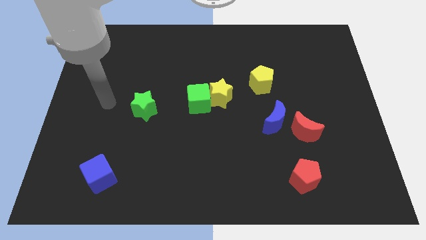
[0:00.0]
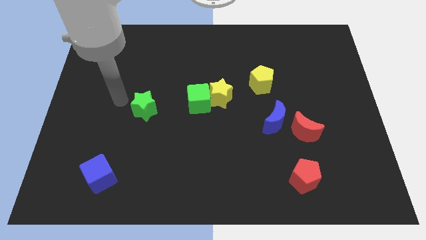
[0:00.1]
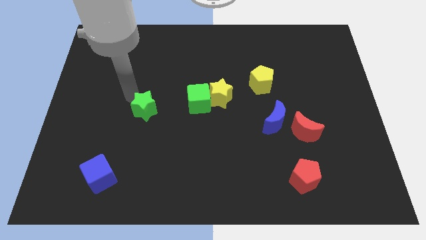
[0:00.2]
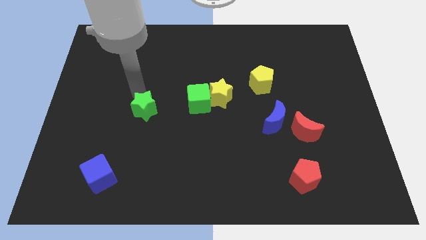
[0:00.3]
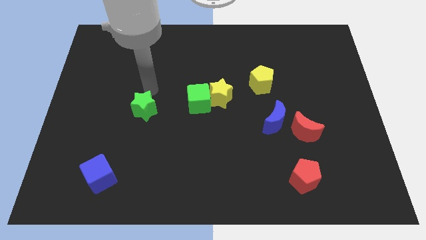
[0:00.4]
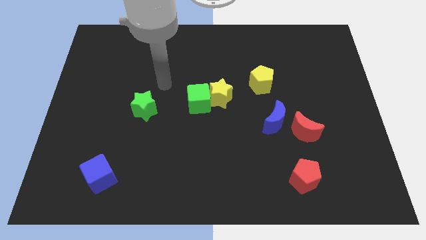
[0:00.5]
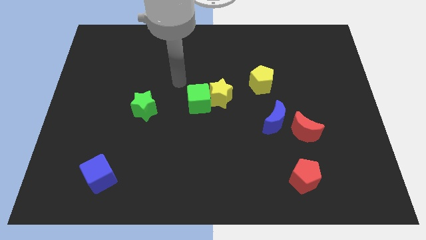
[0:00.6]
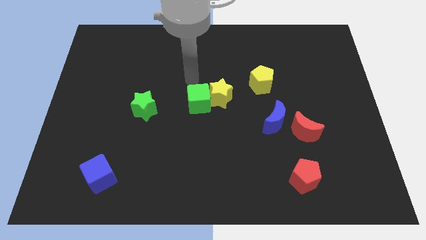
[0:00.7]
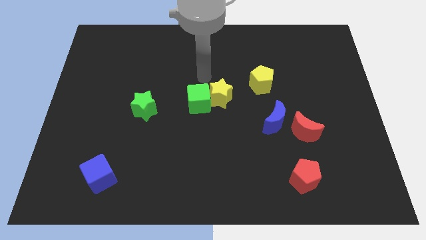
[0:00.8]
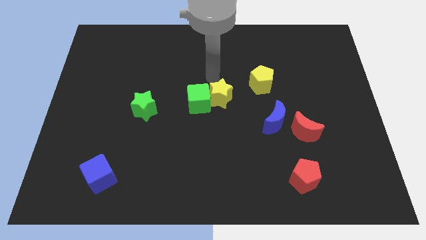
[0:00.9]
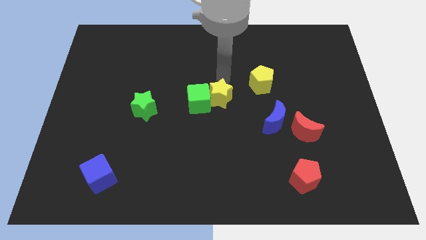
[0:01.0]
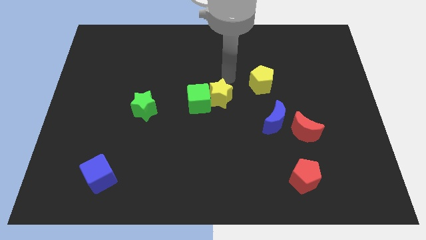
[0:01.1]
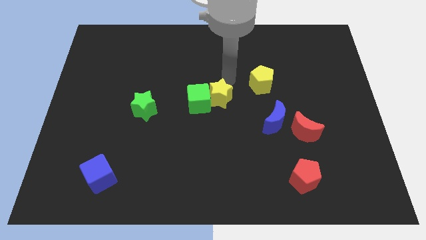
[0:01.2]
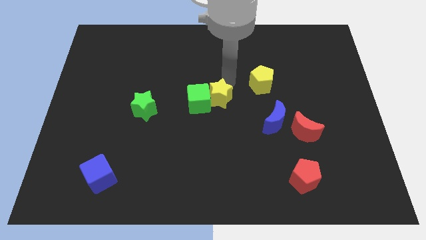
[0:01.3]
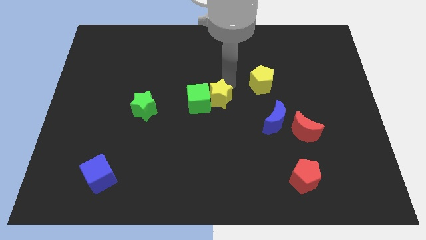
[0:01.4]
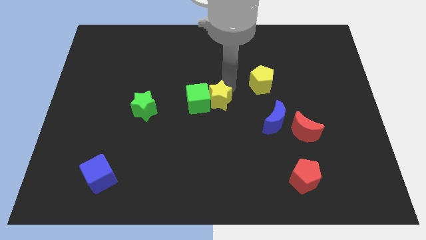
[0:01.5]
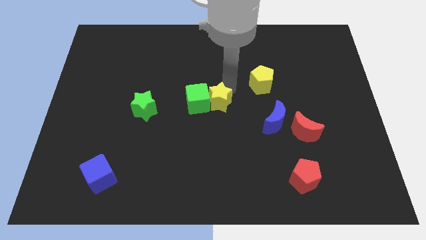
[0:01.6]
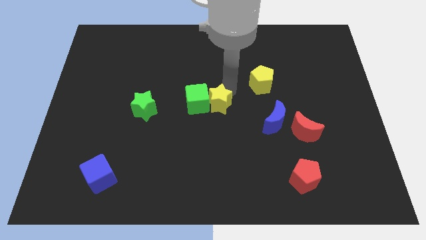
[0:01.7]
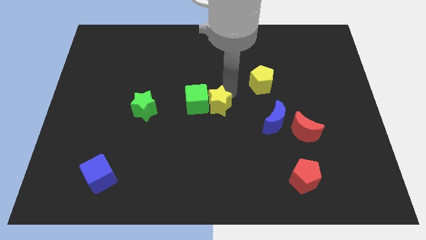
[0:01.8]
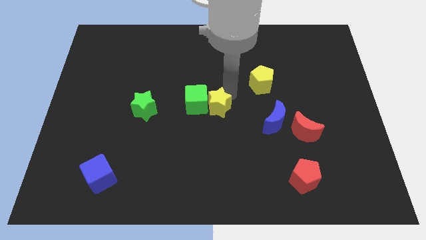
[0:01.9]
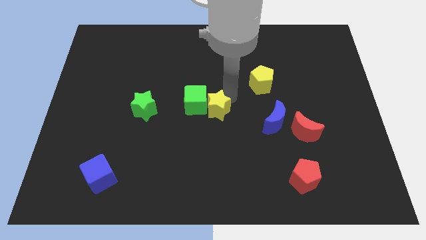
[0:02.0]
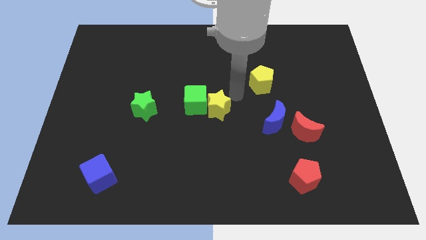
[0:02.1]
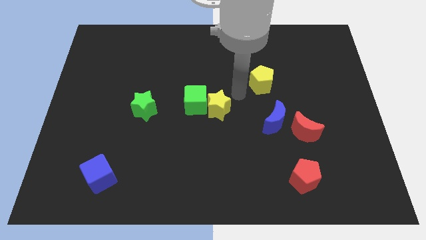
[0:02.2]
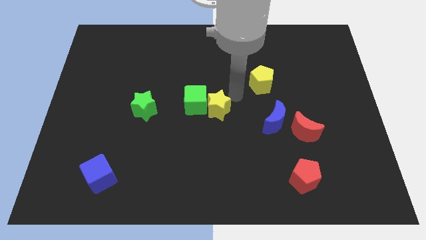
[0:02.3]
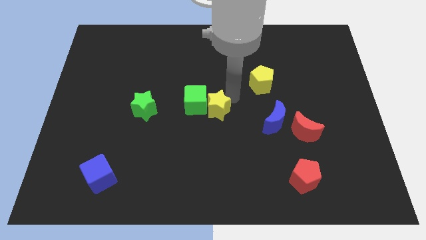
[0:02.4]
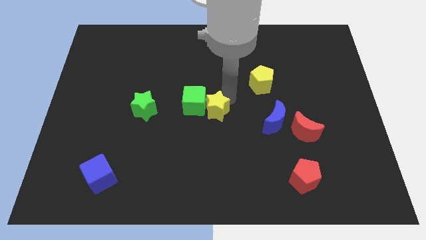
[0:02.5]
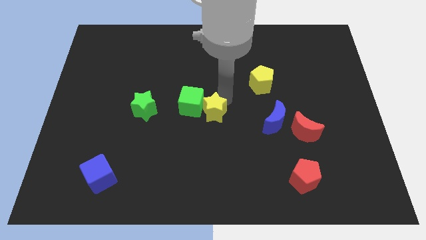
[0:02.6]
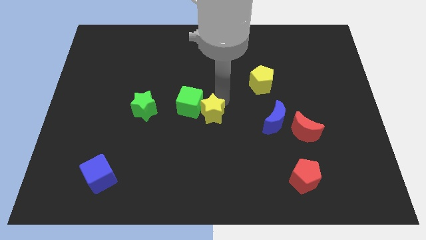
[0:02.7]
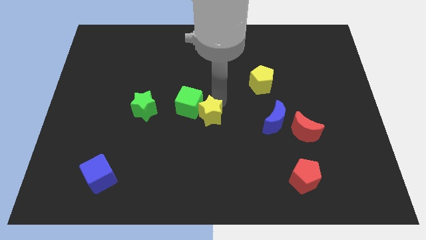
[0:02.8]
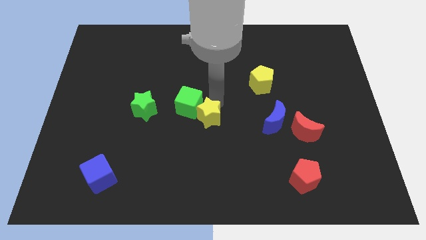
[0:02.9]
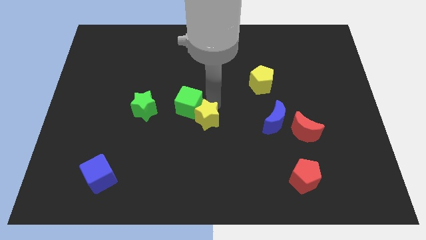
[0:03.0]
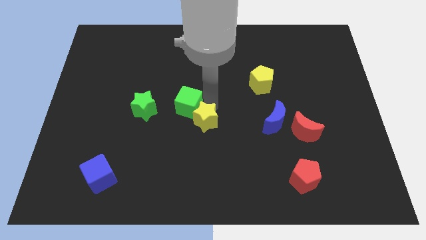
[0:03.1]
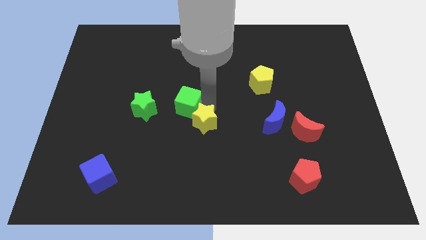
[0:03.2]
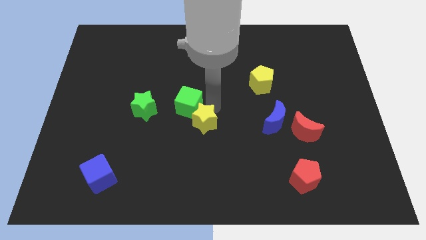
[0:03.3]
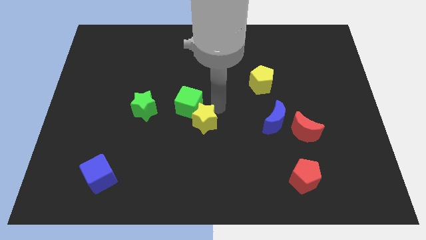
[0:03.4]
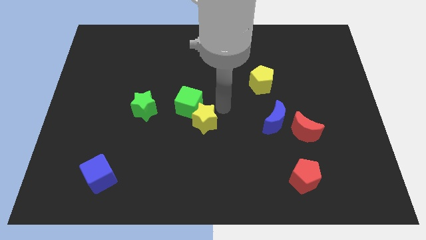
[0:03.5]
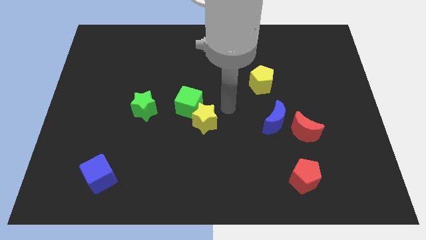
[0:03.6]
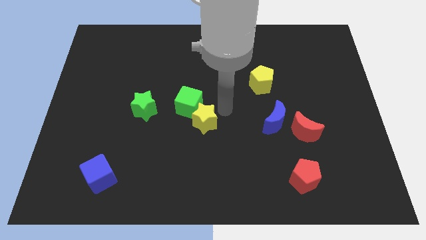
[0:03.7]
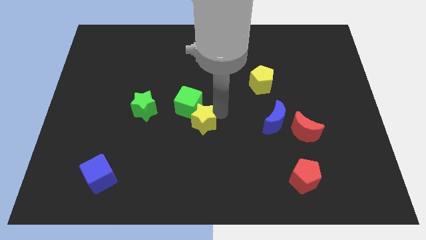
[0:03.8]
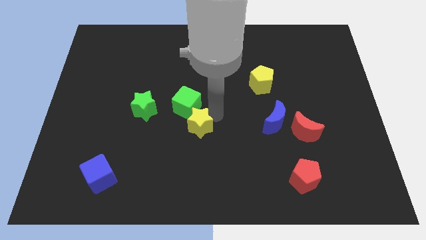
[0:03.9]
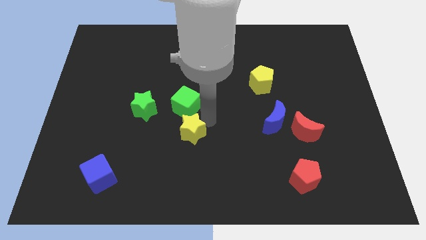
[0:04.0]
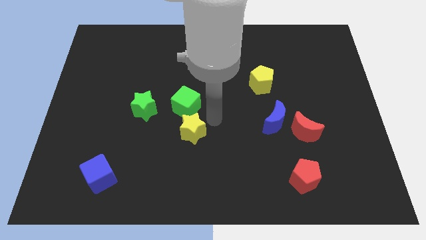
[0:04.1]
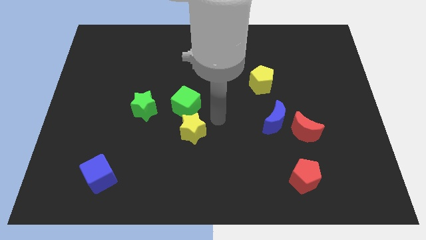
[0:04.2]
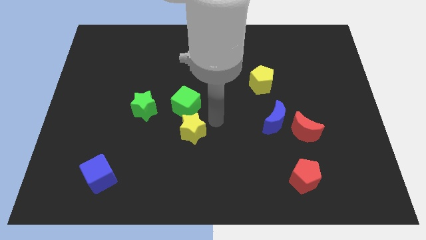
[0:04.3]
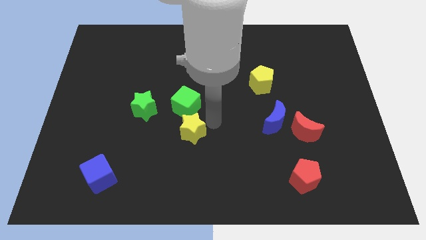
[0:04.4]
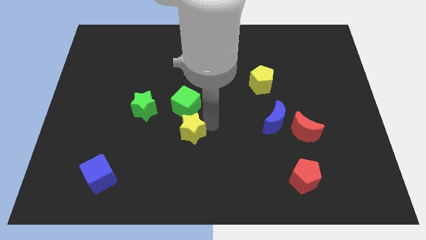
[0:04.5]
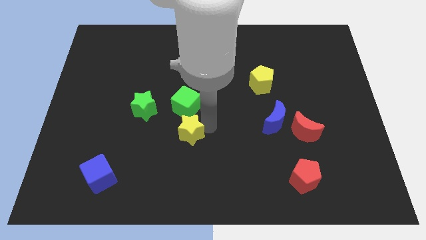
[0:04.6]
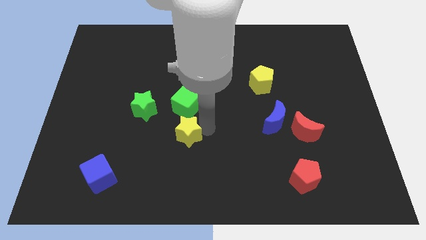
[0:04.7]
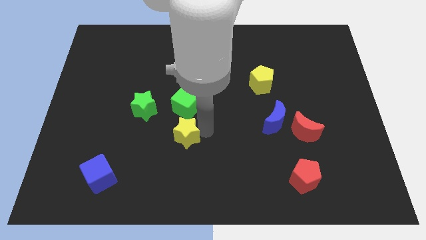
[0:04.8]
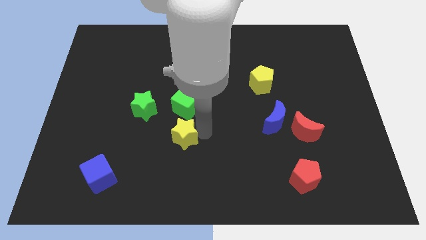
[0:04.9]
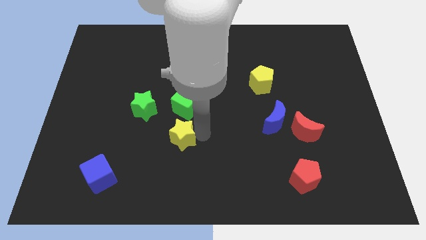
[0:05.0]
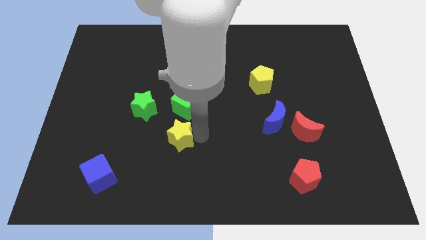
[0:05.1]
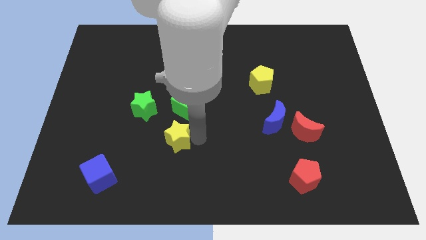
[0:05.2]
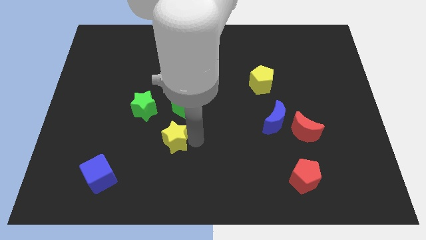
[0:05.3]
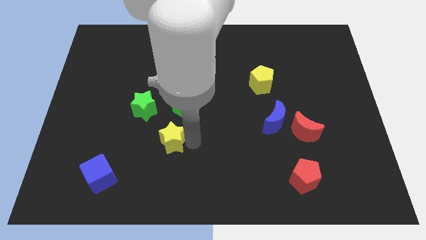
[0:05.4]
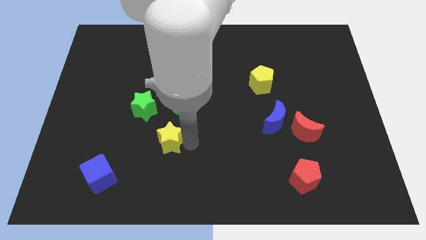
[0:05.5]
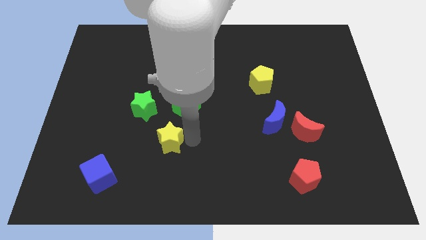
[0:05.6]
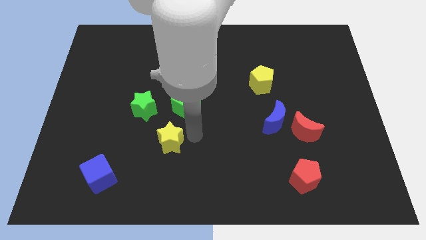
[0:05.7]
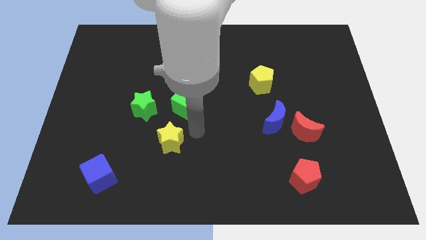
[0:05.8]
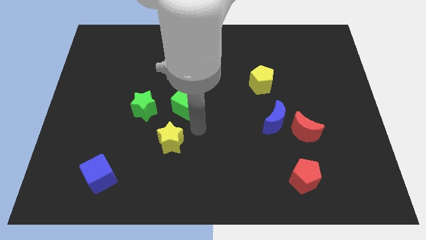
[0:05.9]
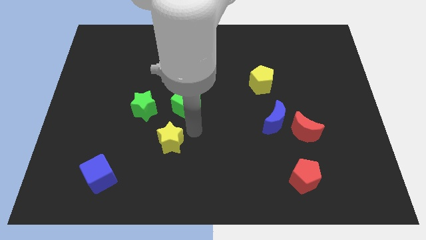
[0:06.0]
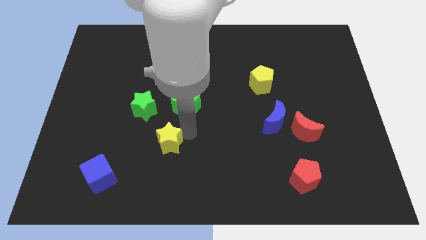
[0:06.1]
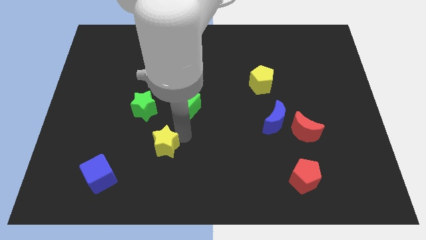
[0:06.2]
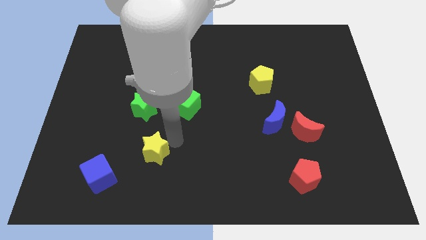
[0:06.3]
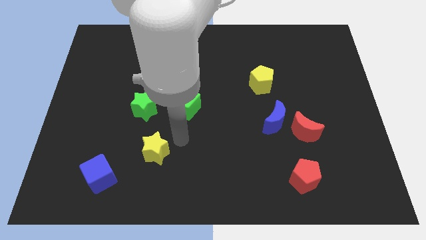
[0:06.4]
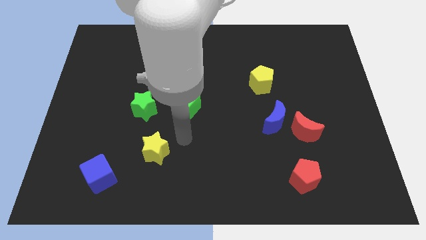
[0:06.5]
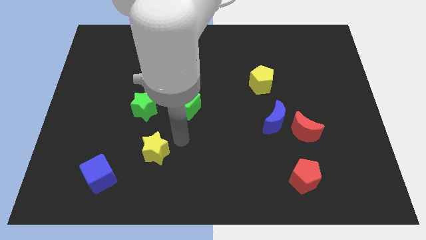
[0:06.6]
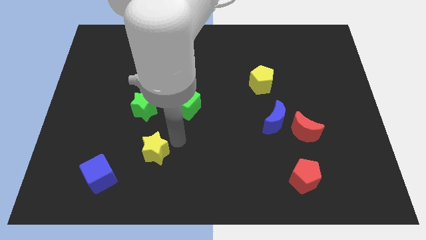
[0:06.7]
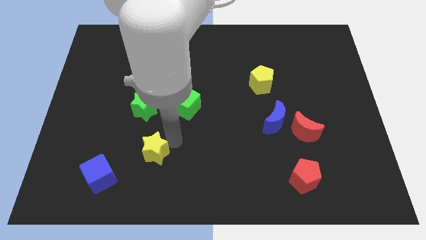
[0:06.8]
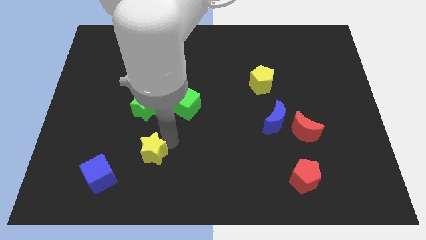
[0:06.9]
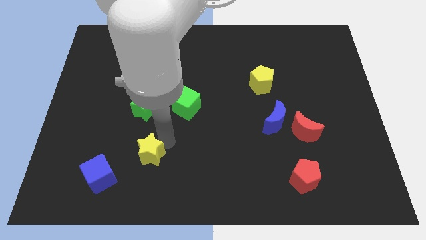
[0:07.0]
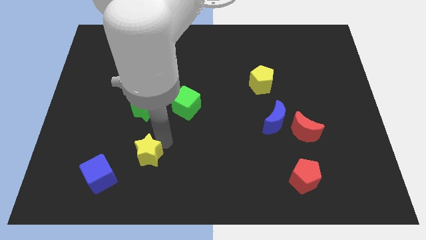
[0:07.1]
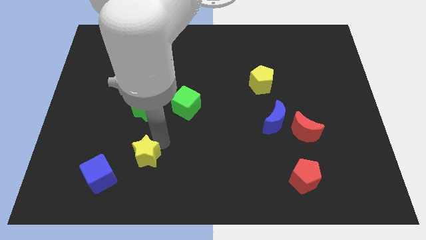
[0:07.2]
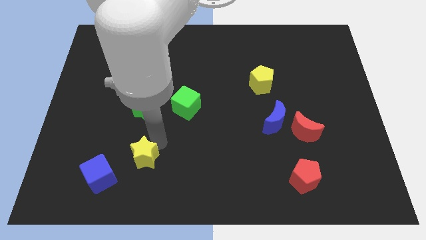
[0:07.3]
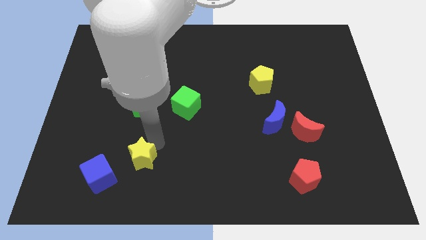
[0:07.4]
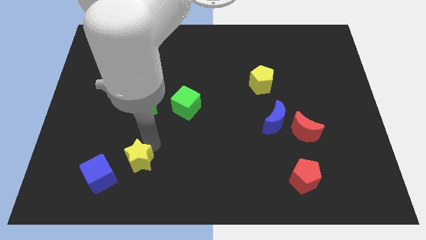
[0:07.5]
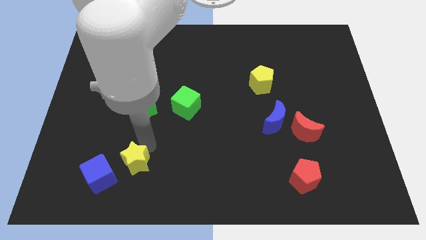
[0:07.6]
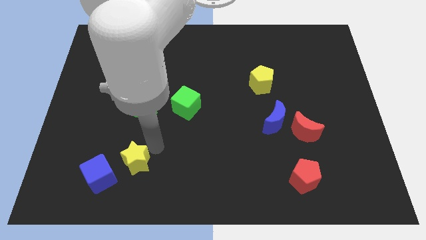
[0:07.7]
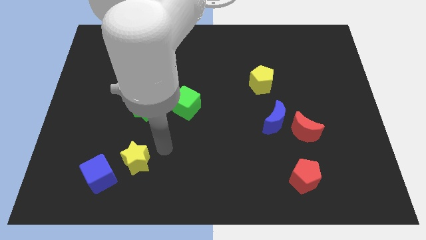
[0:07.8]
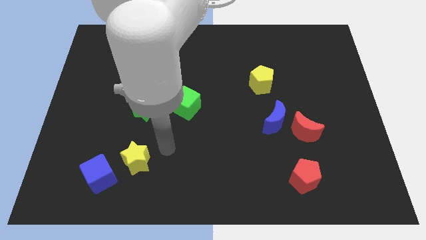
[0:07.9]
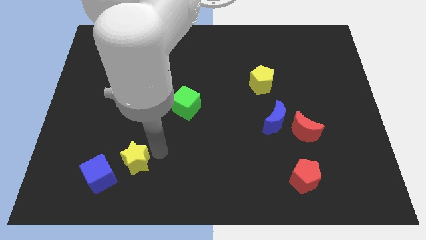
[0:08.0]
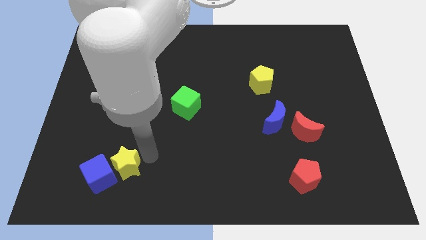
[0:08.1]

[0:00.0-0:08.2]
slide the yellow star to the blue cube
